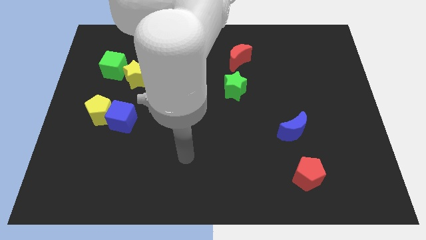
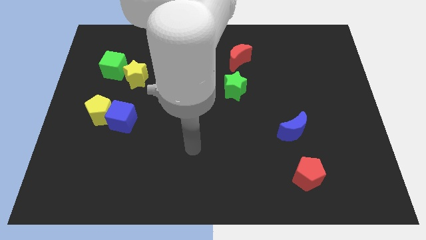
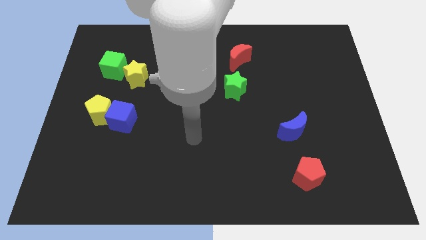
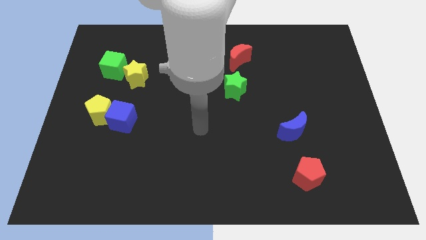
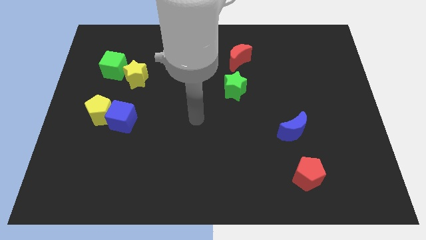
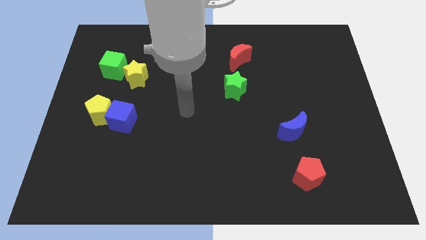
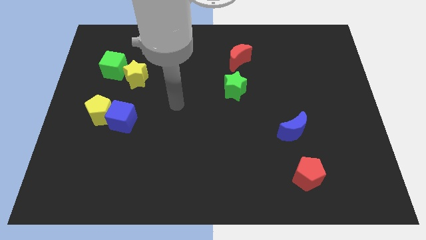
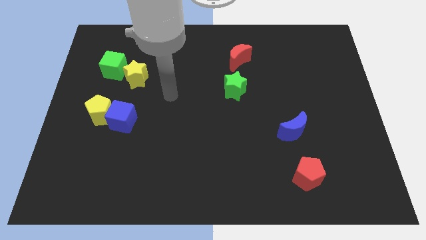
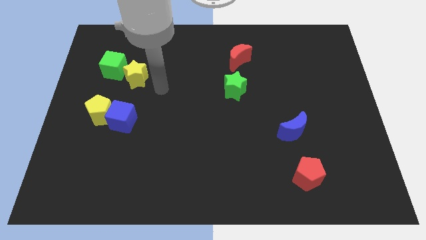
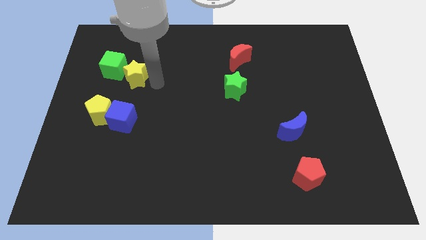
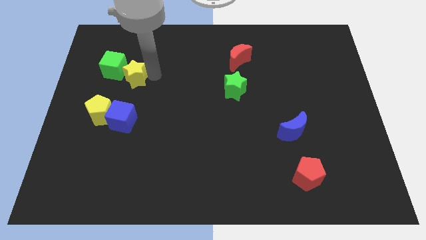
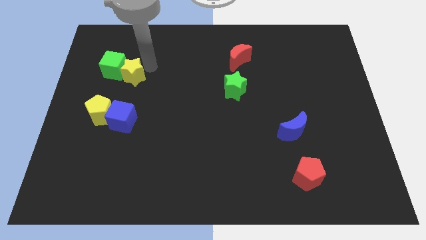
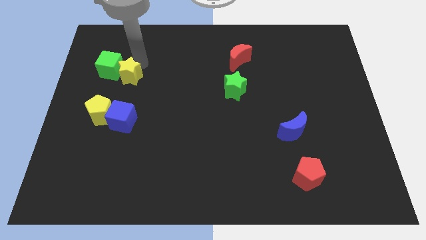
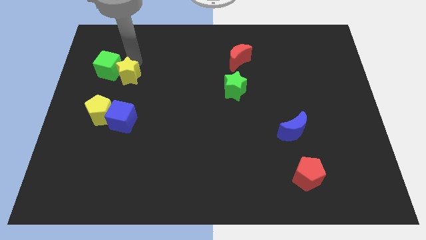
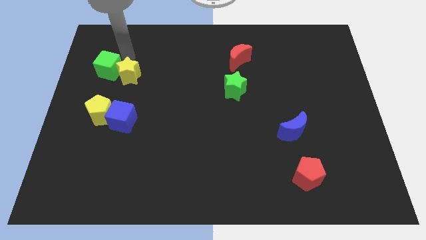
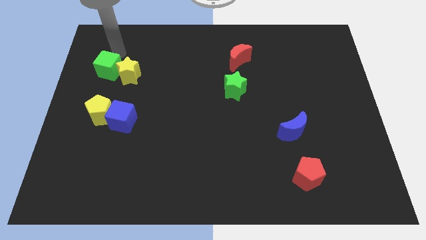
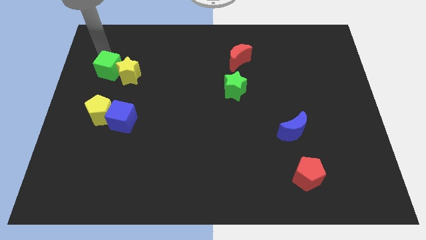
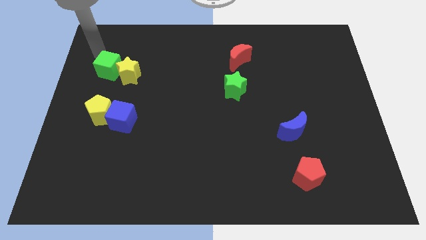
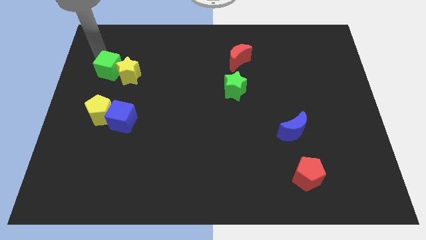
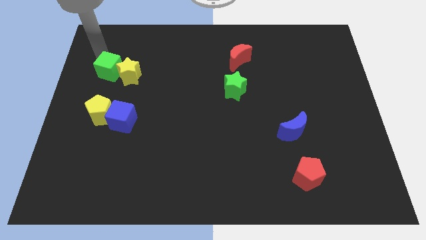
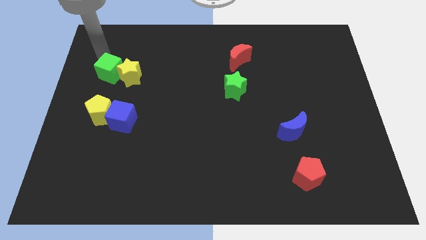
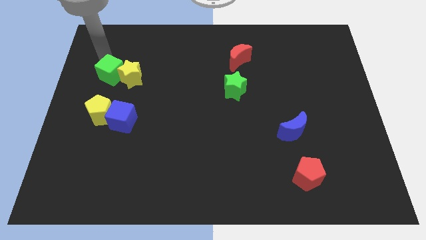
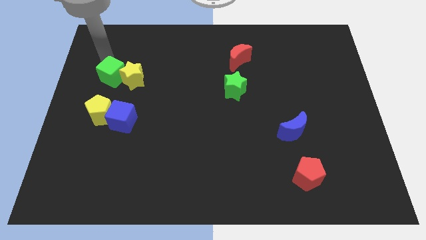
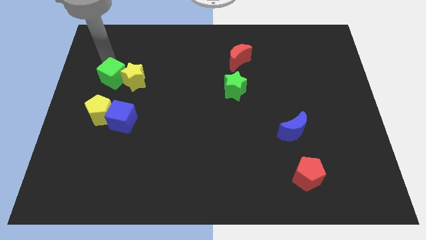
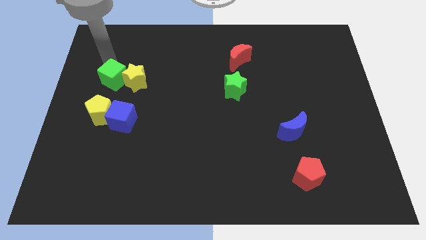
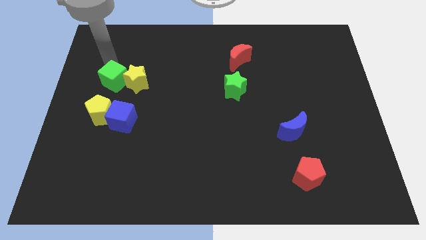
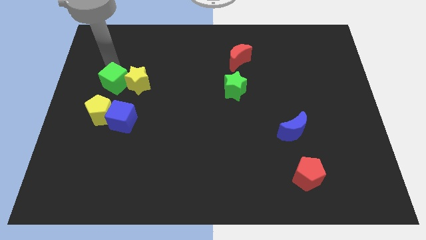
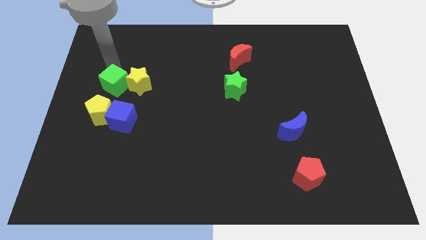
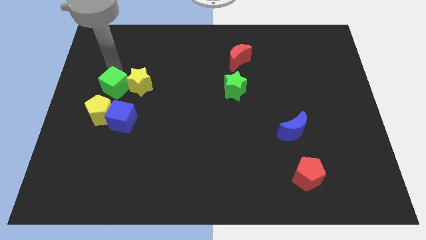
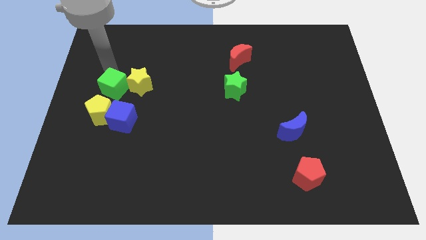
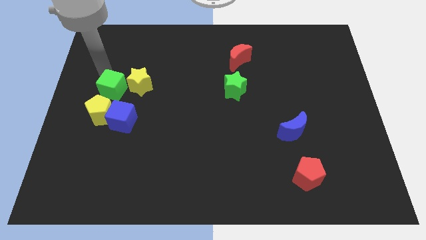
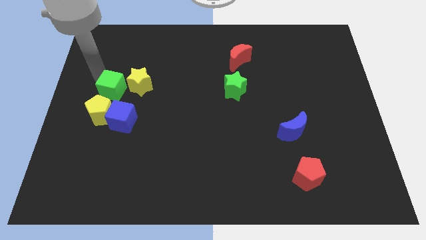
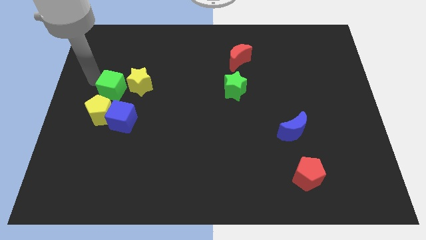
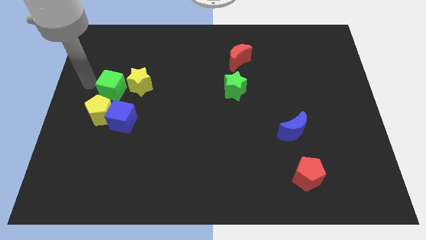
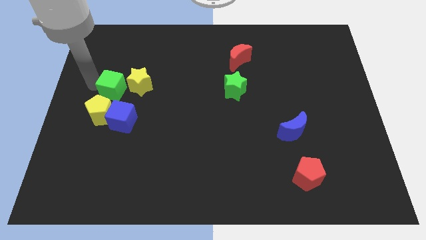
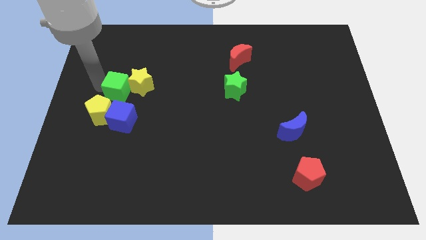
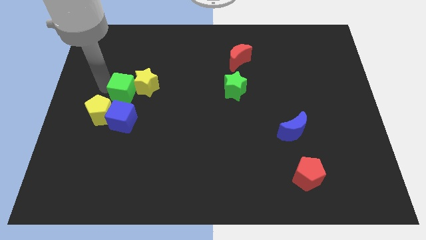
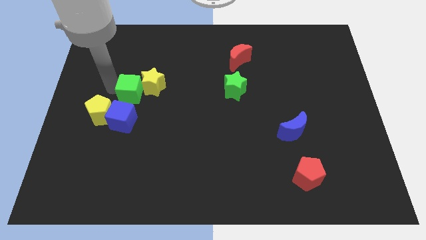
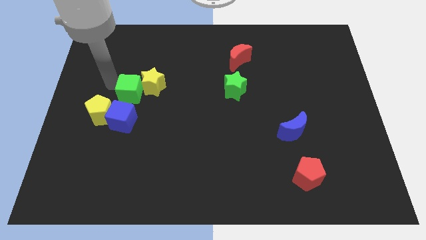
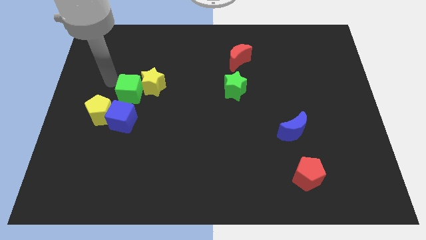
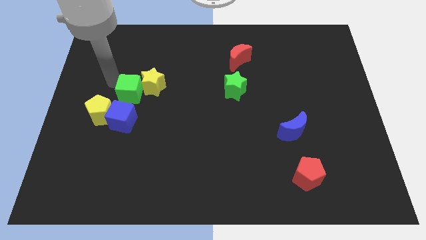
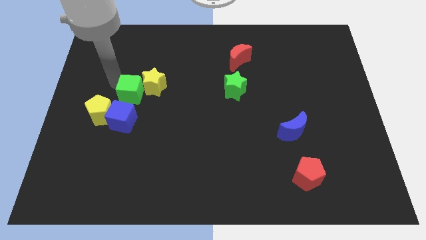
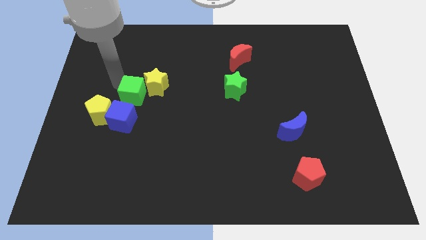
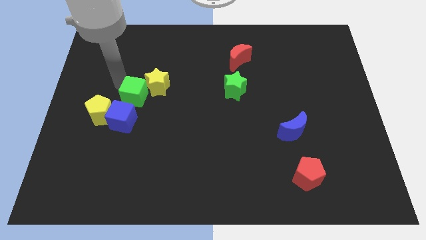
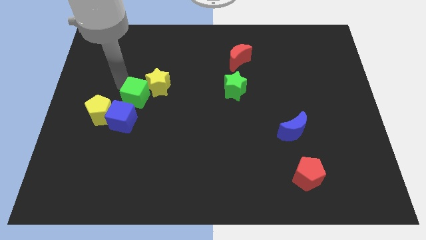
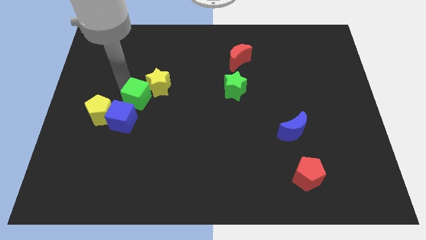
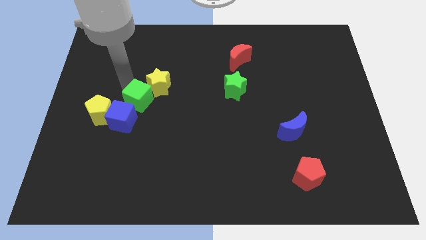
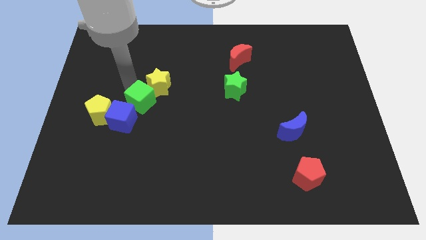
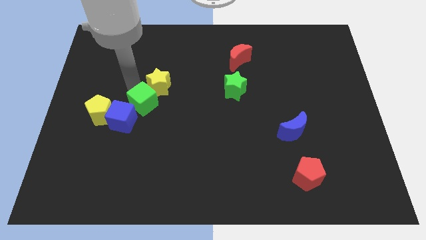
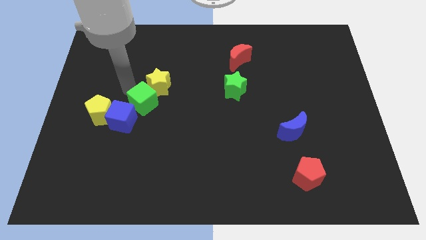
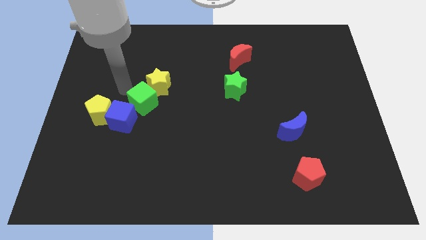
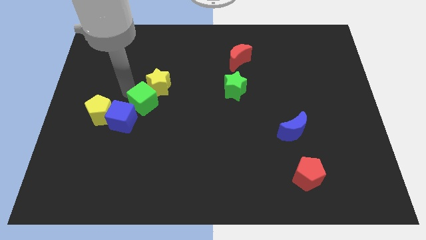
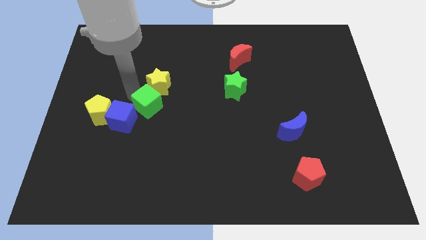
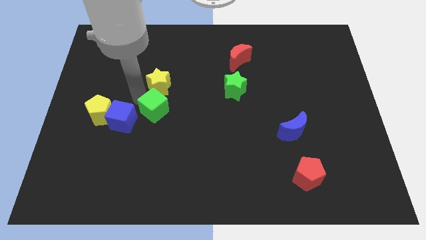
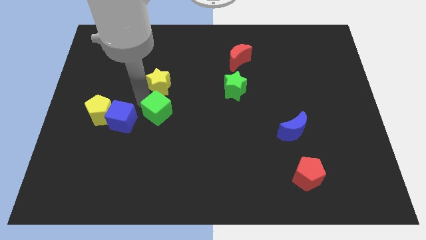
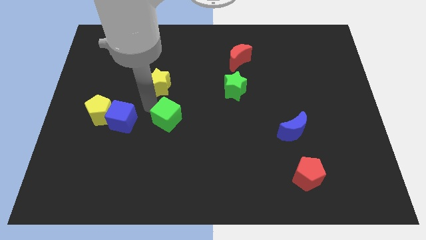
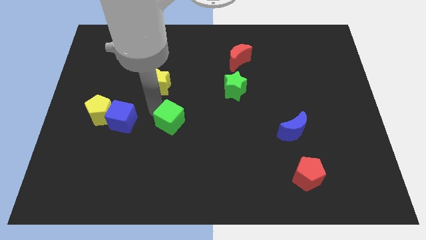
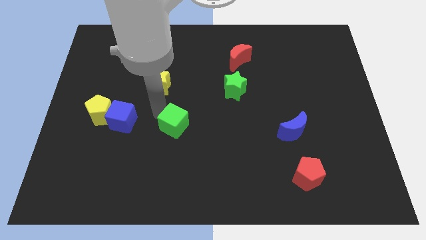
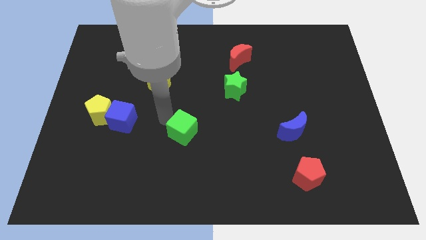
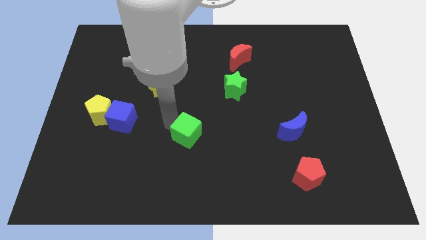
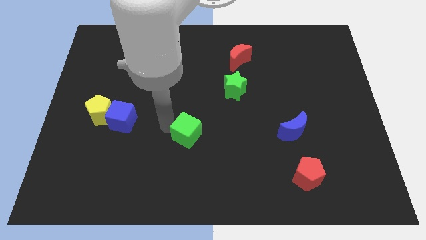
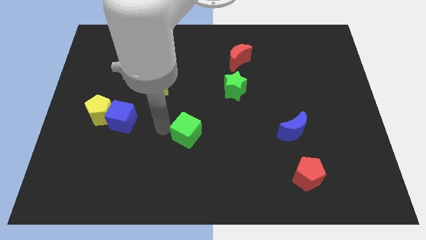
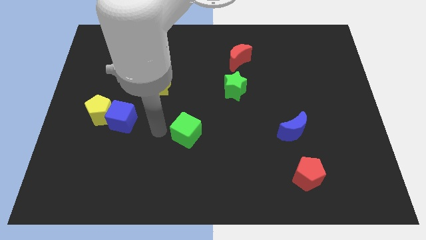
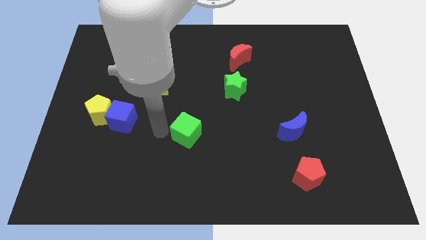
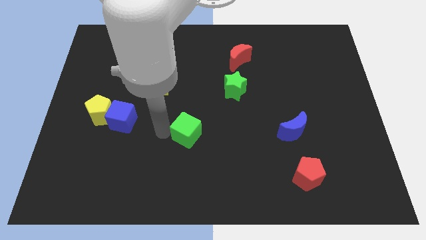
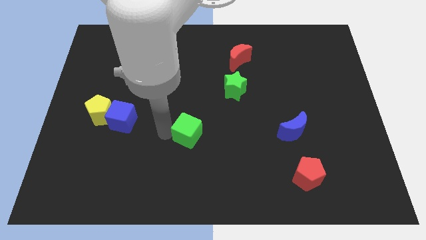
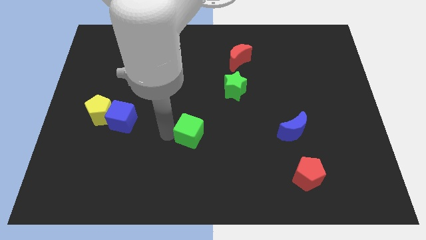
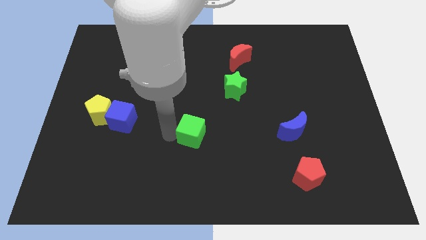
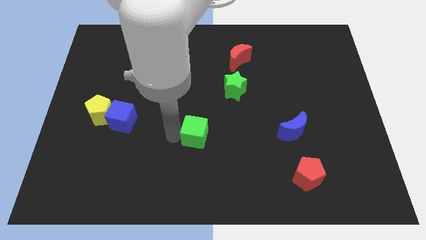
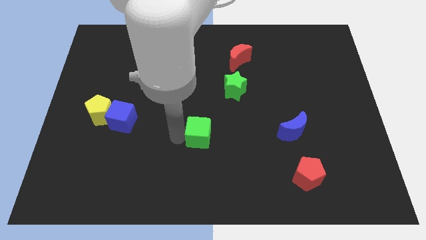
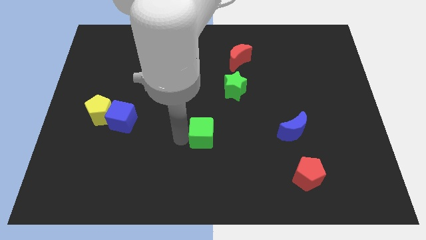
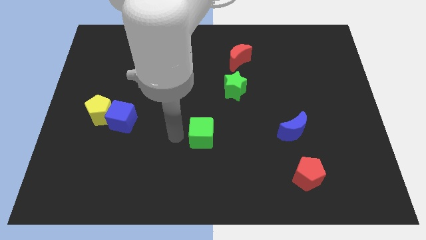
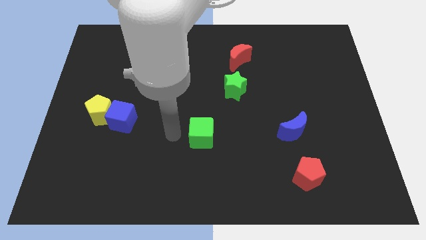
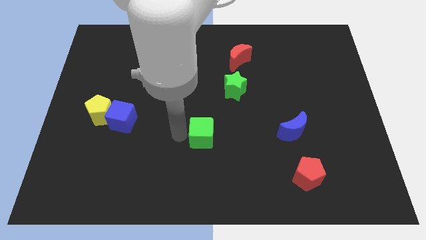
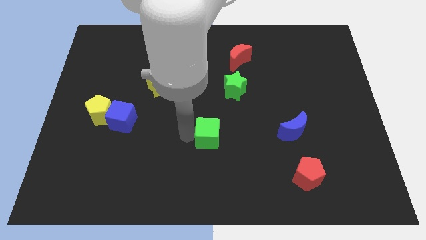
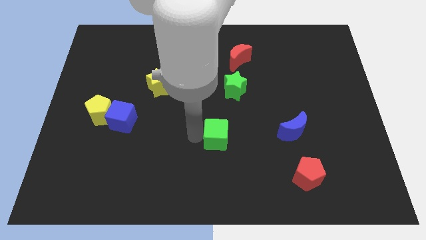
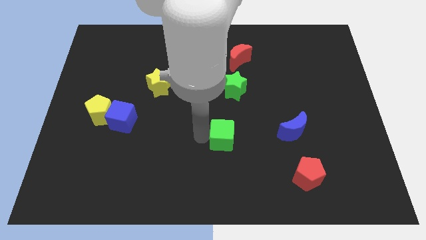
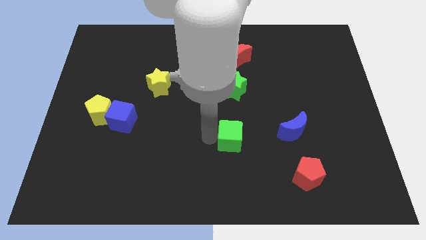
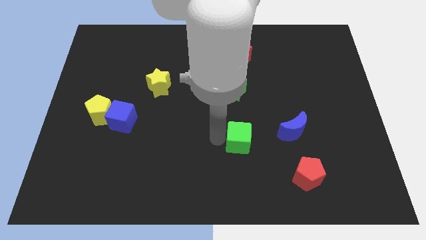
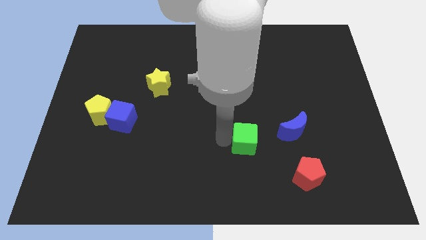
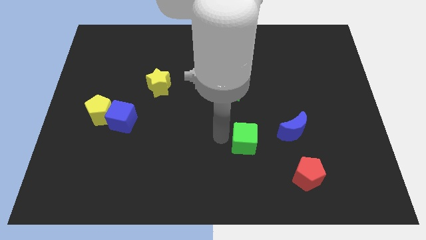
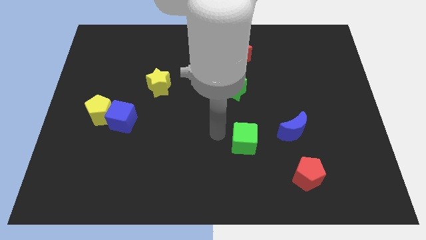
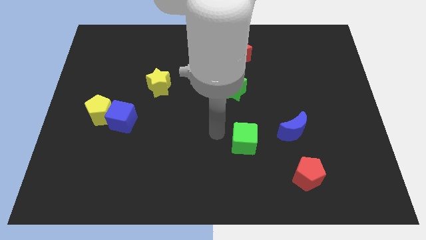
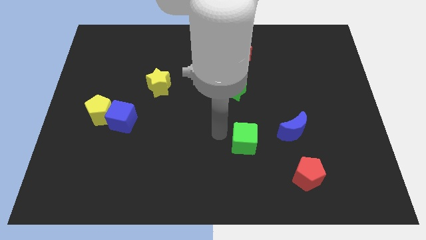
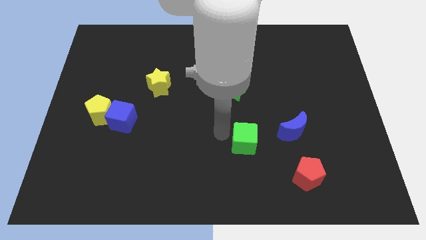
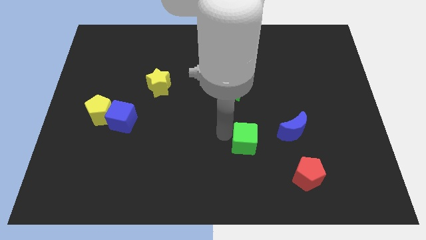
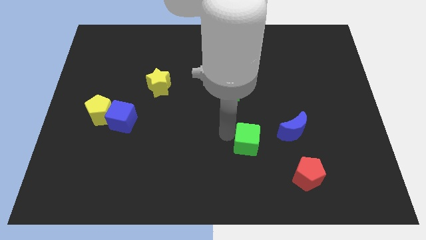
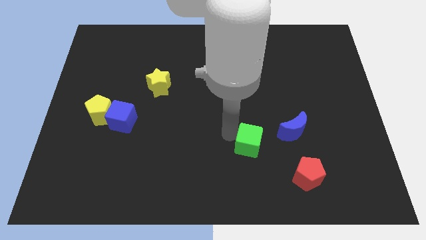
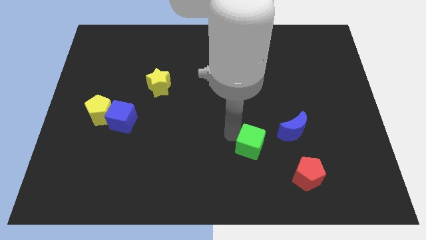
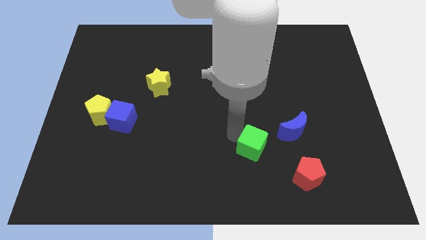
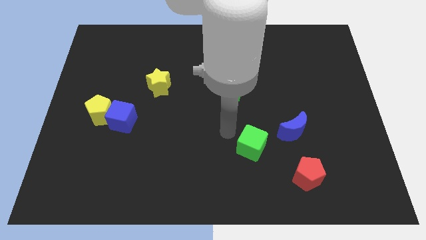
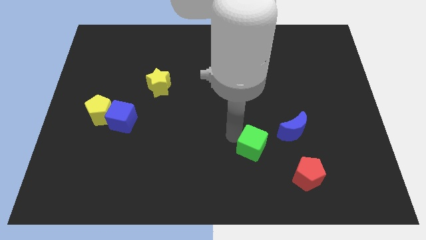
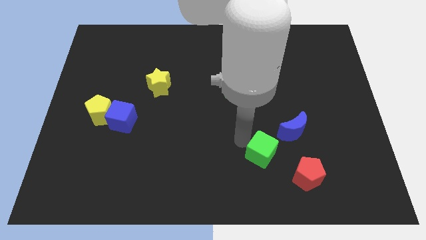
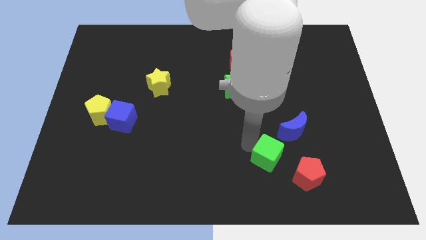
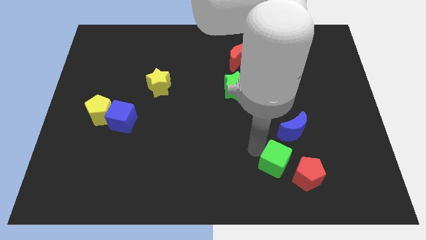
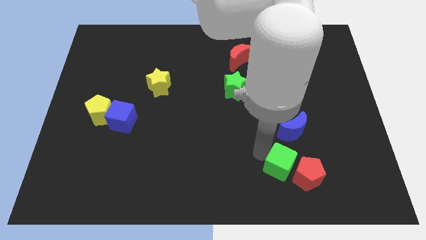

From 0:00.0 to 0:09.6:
put the green cube next to the red pentagon
